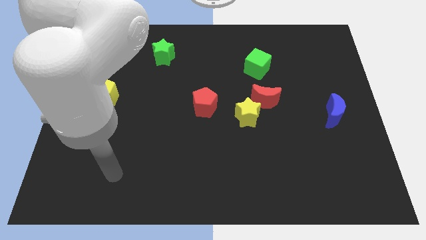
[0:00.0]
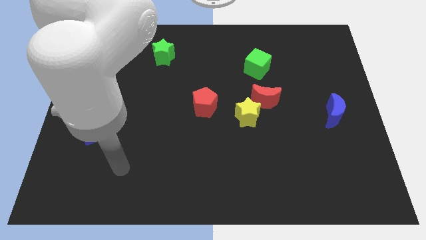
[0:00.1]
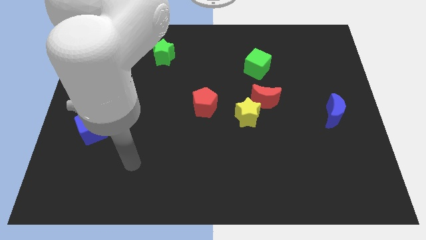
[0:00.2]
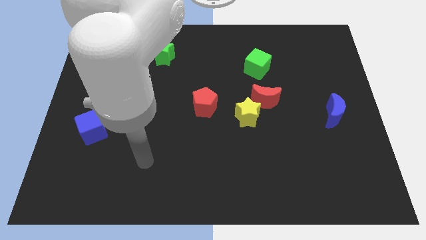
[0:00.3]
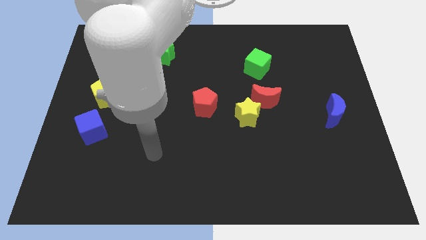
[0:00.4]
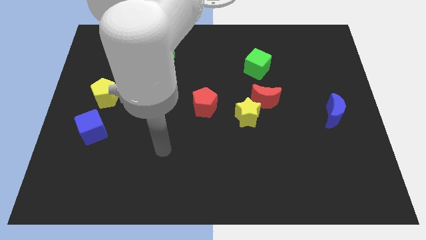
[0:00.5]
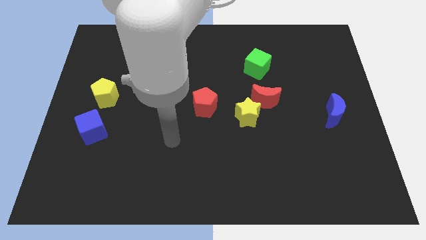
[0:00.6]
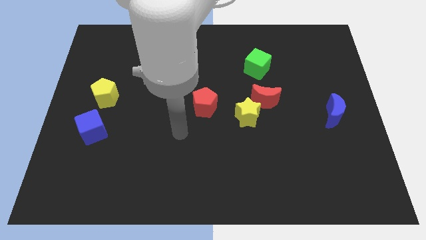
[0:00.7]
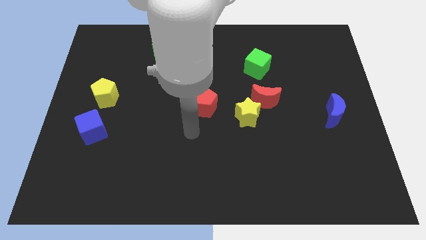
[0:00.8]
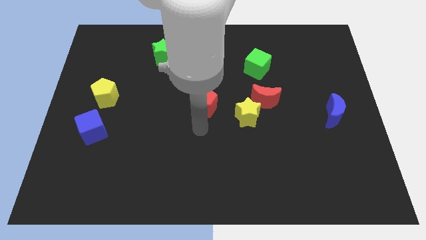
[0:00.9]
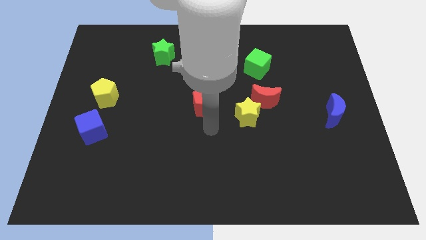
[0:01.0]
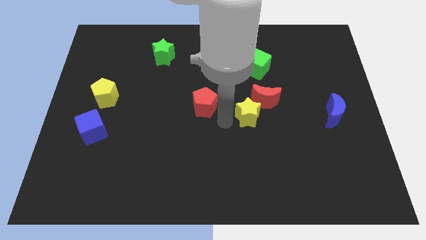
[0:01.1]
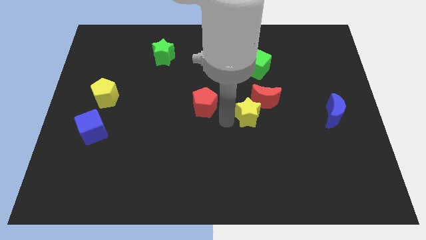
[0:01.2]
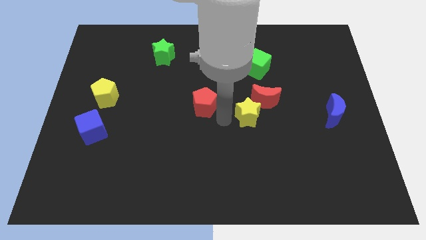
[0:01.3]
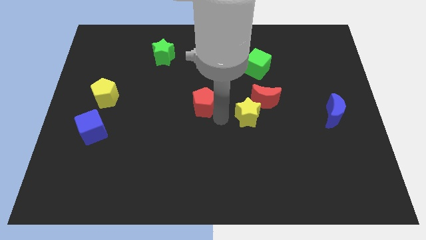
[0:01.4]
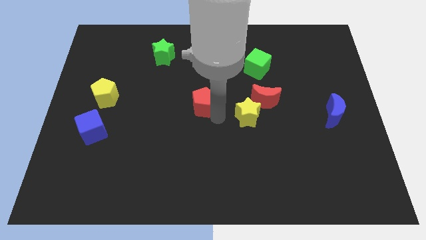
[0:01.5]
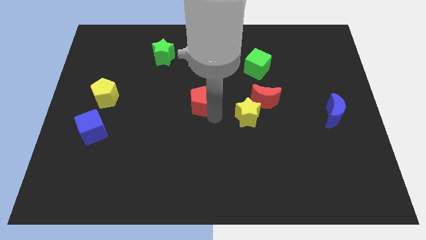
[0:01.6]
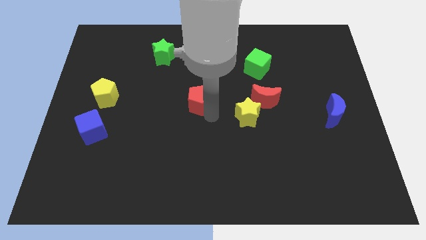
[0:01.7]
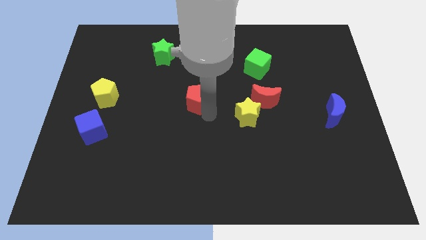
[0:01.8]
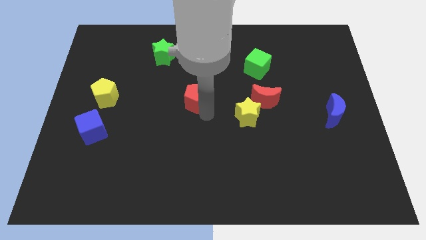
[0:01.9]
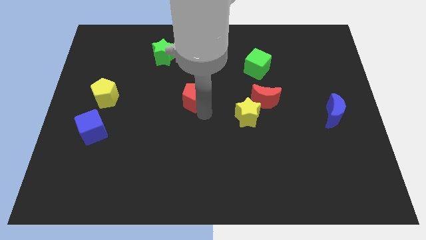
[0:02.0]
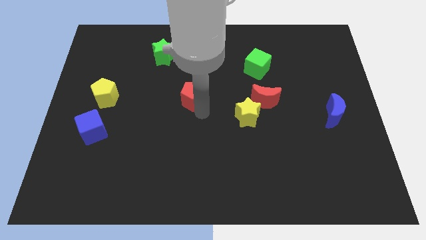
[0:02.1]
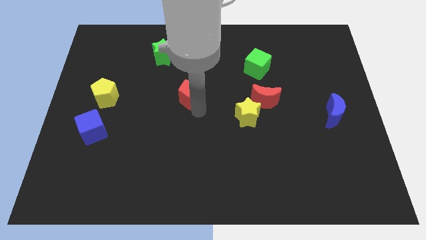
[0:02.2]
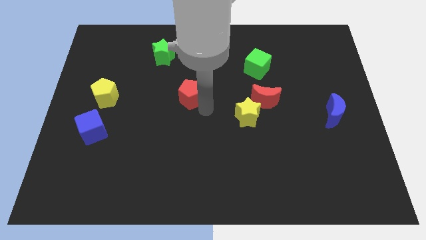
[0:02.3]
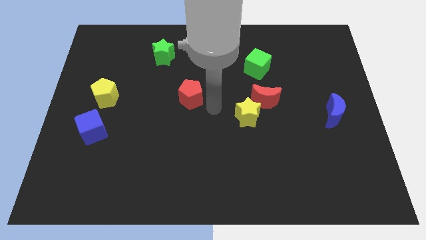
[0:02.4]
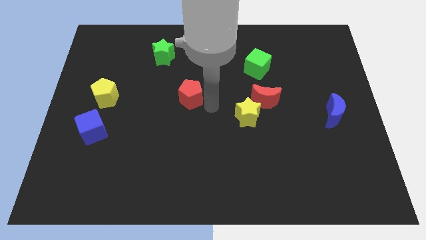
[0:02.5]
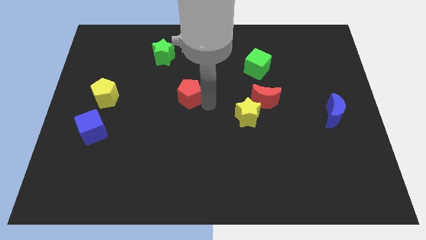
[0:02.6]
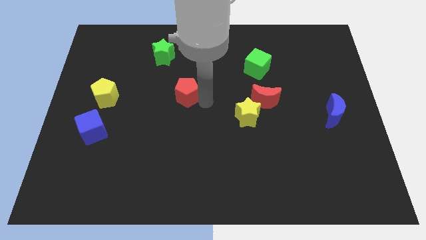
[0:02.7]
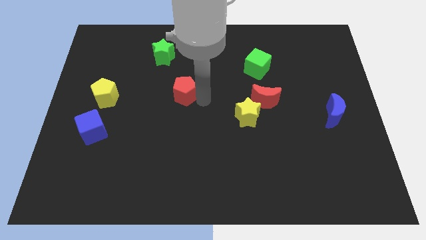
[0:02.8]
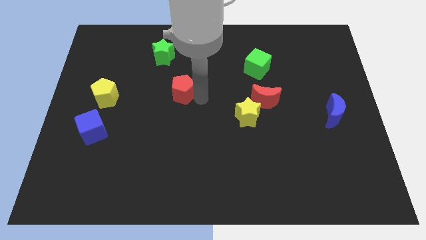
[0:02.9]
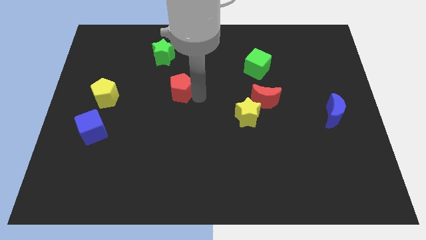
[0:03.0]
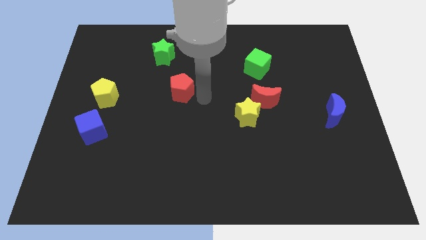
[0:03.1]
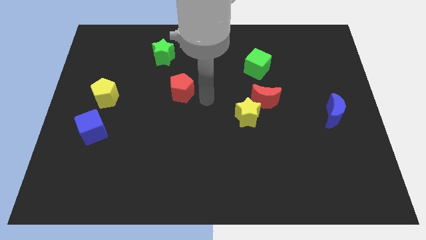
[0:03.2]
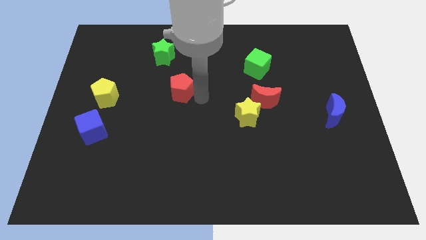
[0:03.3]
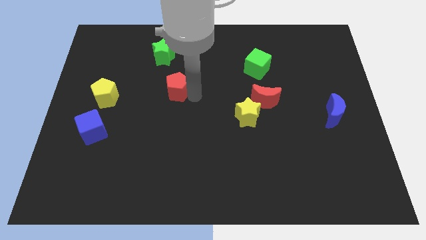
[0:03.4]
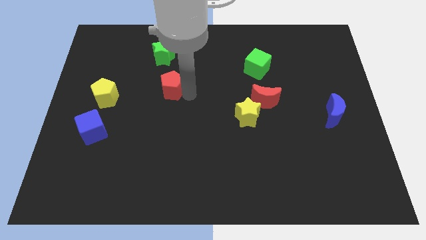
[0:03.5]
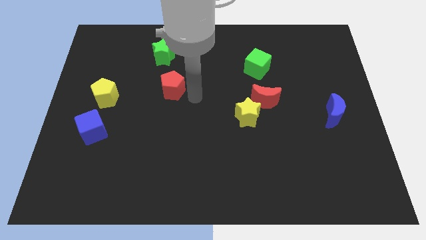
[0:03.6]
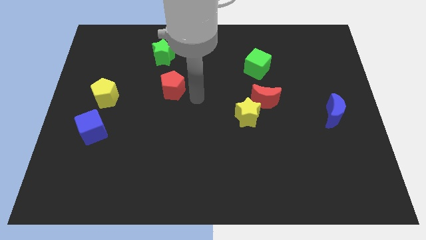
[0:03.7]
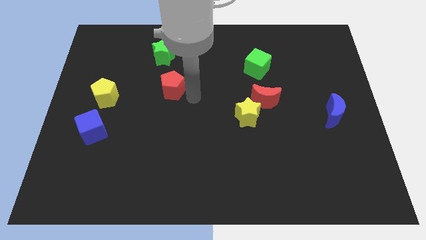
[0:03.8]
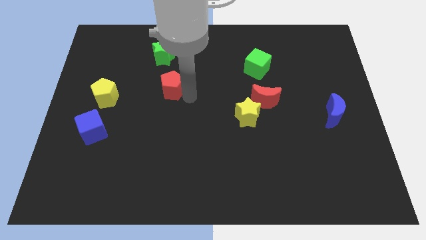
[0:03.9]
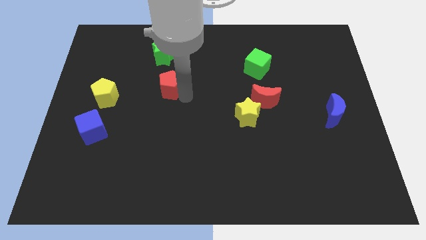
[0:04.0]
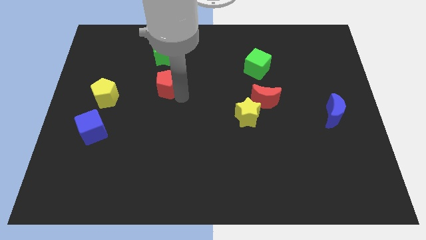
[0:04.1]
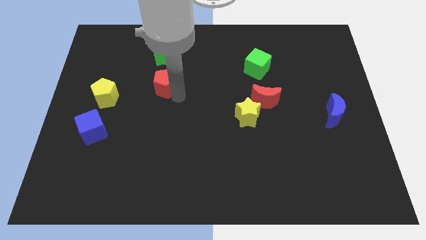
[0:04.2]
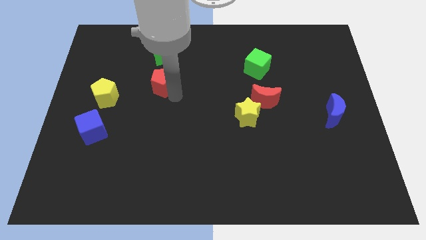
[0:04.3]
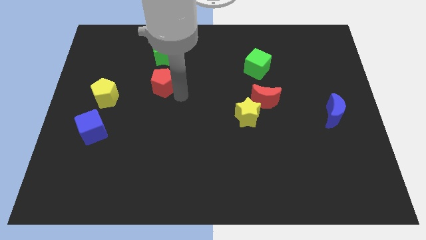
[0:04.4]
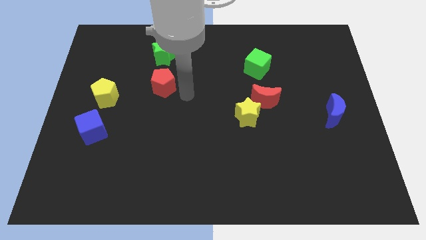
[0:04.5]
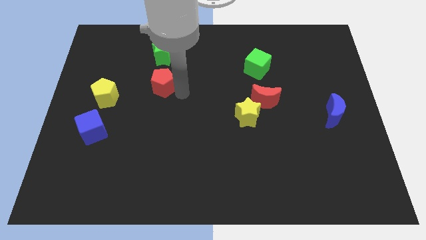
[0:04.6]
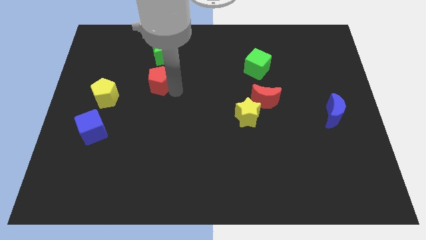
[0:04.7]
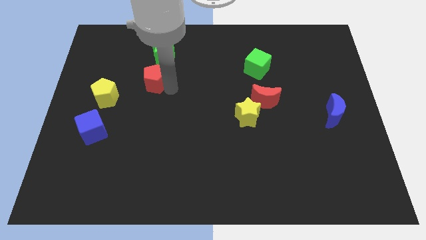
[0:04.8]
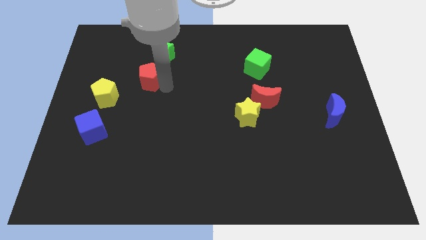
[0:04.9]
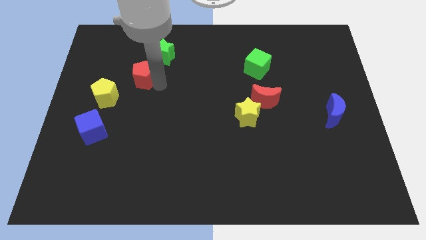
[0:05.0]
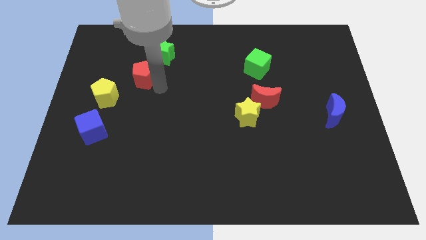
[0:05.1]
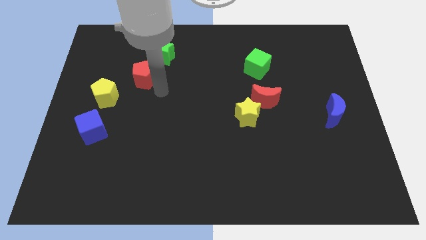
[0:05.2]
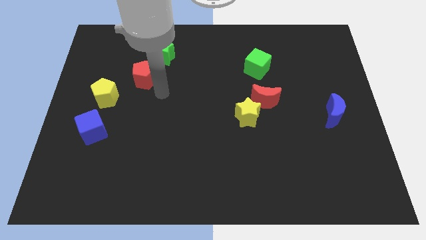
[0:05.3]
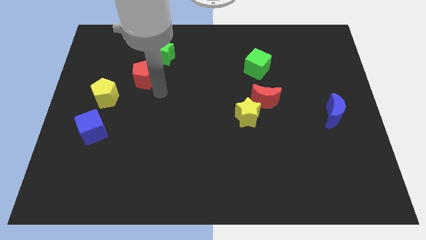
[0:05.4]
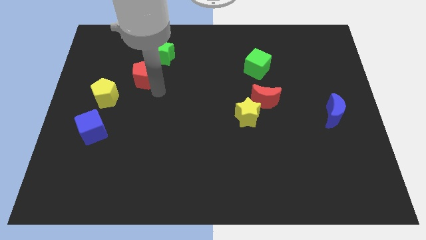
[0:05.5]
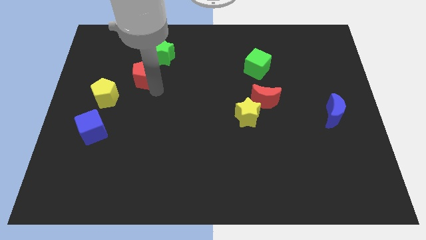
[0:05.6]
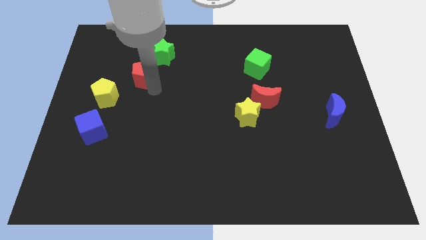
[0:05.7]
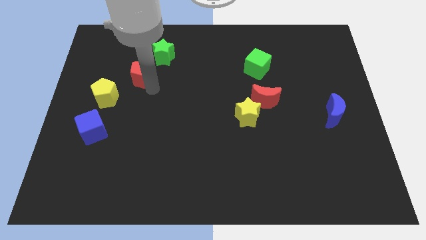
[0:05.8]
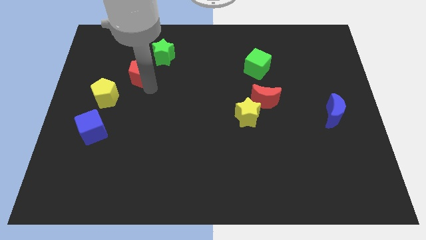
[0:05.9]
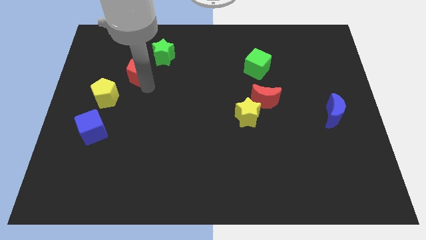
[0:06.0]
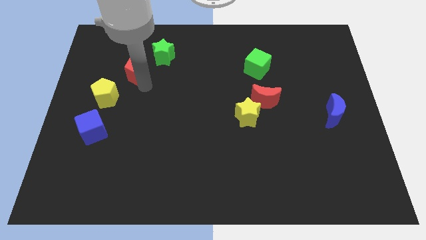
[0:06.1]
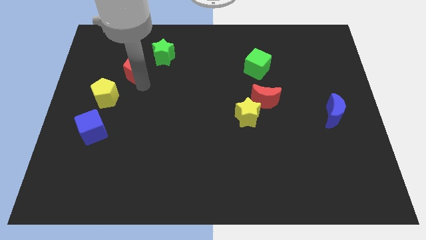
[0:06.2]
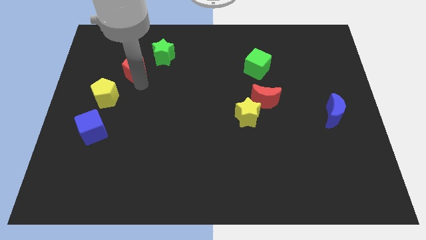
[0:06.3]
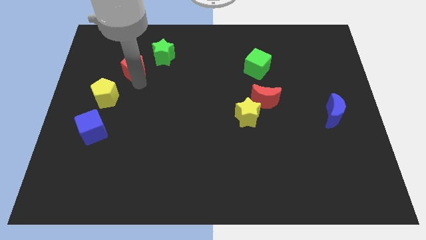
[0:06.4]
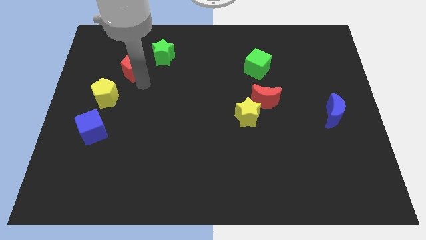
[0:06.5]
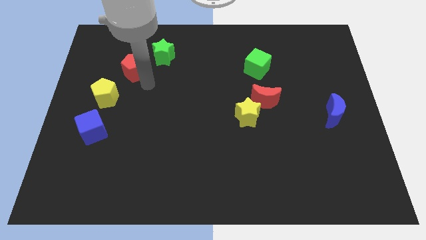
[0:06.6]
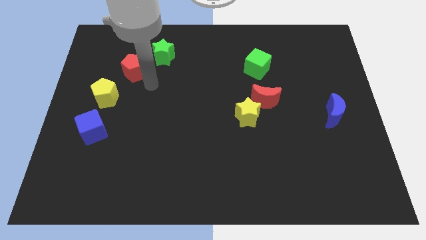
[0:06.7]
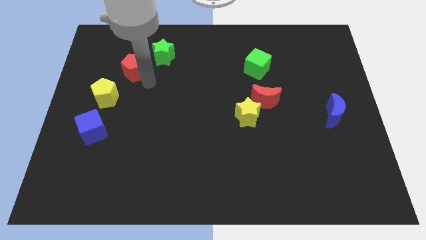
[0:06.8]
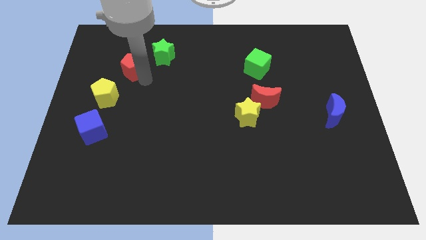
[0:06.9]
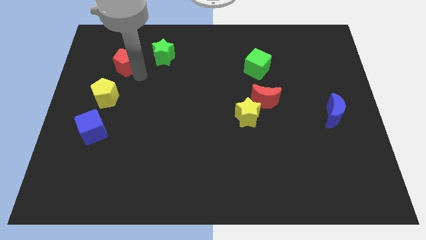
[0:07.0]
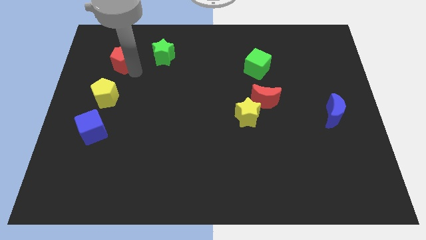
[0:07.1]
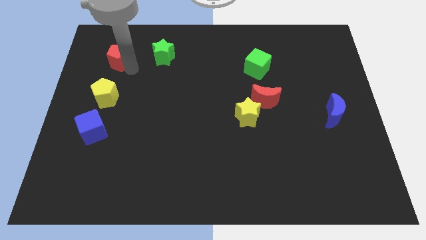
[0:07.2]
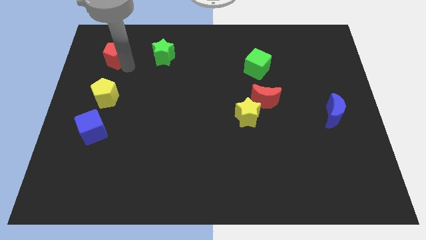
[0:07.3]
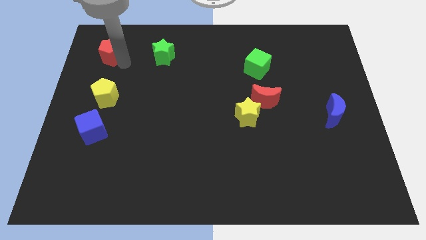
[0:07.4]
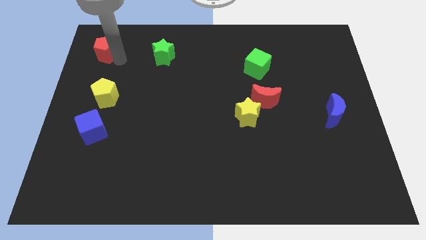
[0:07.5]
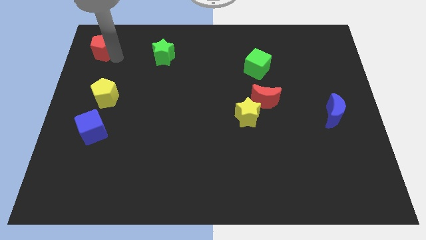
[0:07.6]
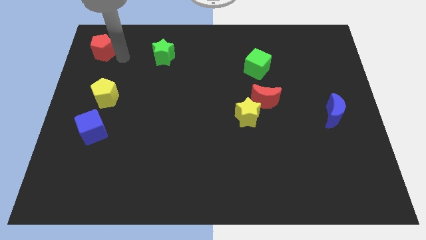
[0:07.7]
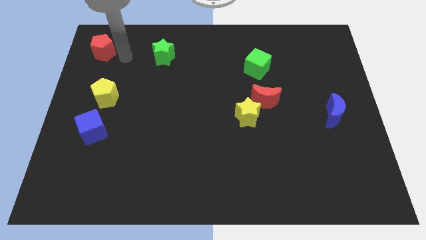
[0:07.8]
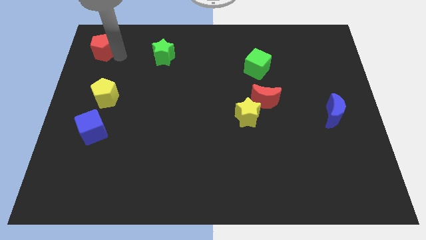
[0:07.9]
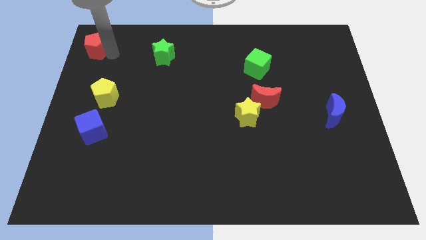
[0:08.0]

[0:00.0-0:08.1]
put the red pentagon to the top left corner
